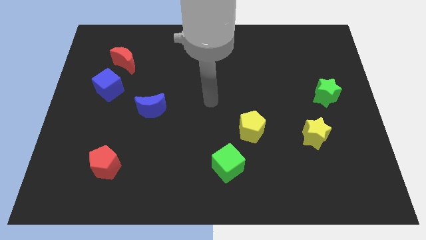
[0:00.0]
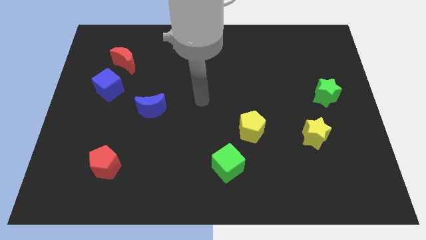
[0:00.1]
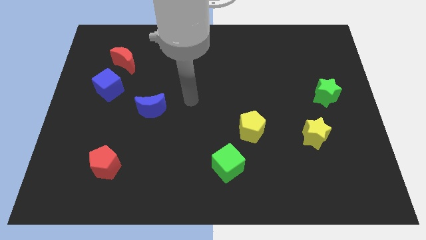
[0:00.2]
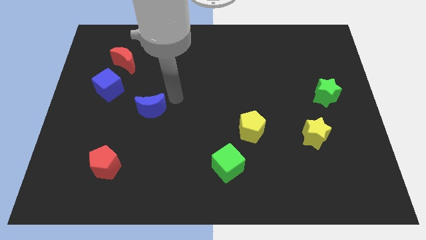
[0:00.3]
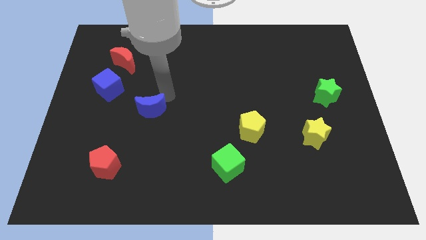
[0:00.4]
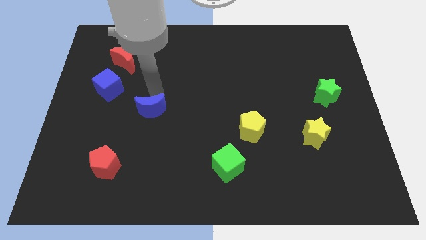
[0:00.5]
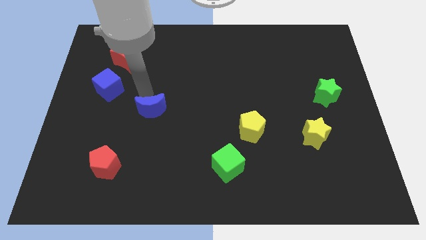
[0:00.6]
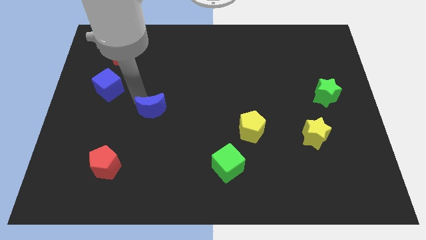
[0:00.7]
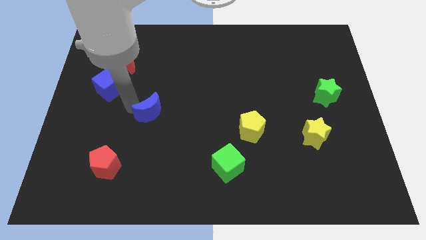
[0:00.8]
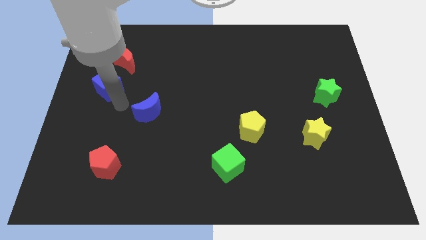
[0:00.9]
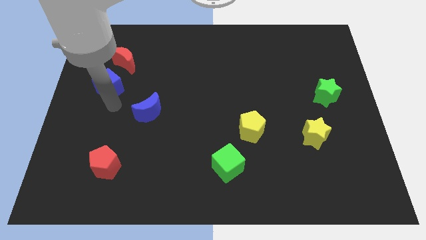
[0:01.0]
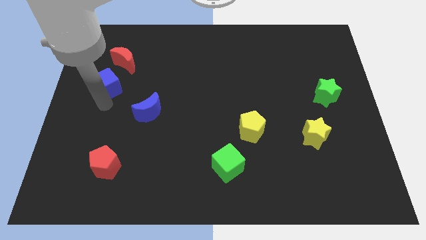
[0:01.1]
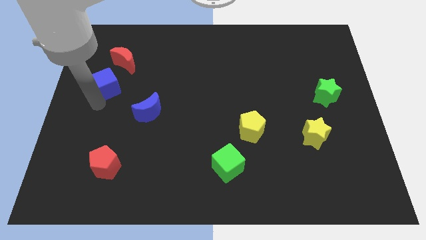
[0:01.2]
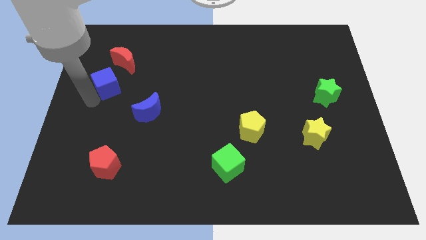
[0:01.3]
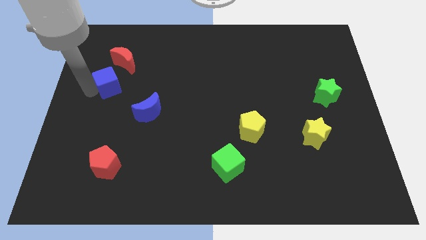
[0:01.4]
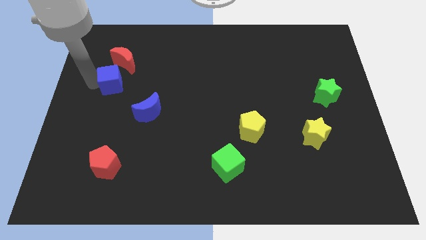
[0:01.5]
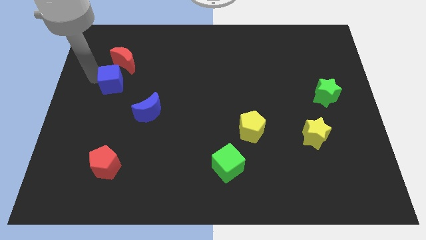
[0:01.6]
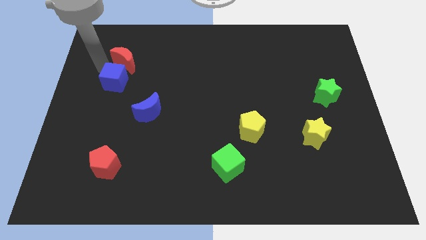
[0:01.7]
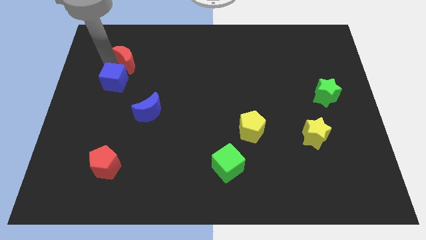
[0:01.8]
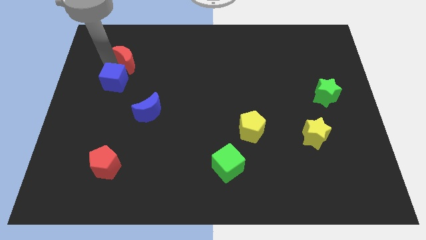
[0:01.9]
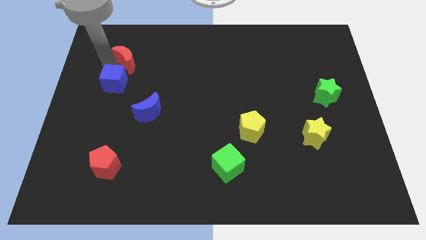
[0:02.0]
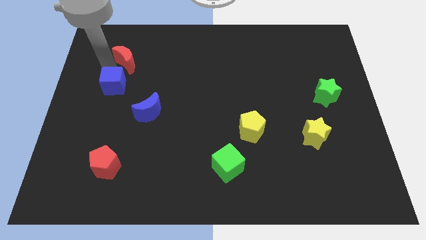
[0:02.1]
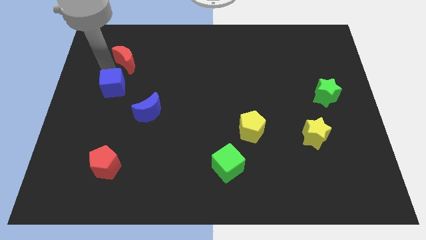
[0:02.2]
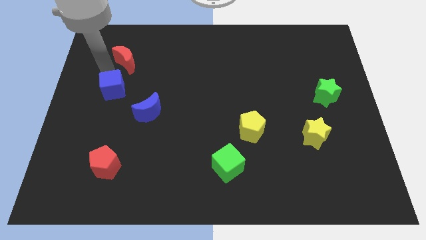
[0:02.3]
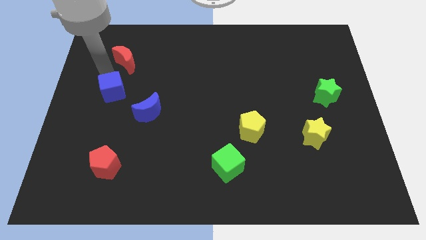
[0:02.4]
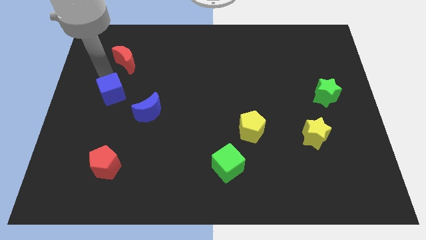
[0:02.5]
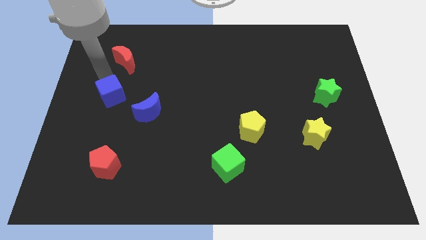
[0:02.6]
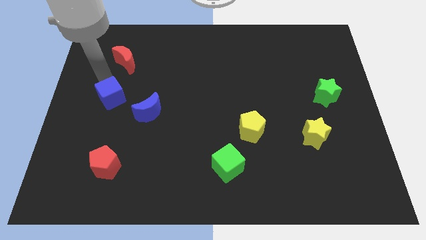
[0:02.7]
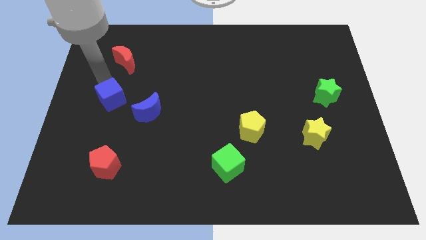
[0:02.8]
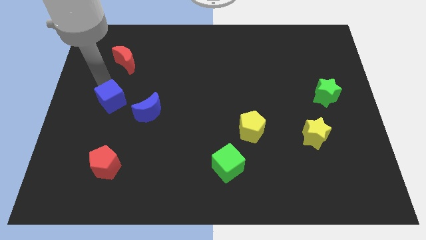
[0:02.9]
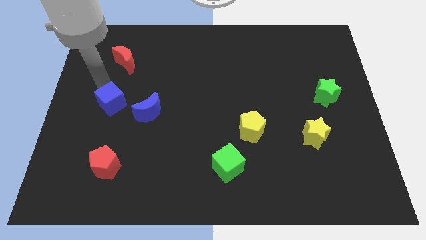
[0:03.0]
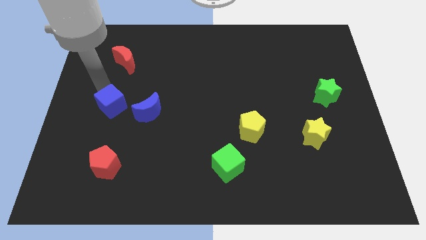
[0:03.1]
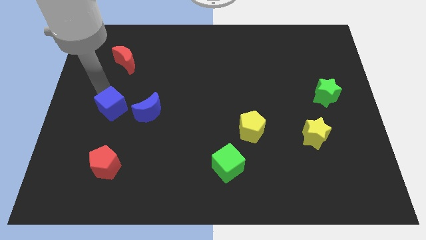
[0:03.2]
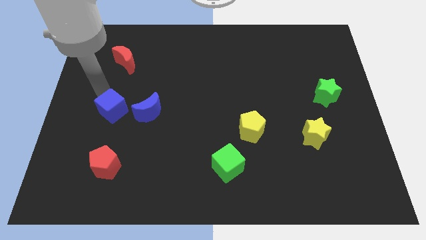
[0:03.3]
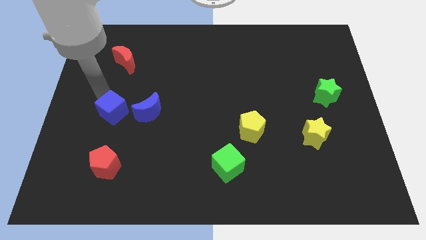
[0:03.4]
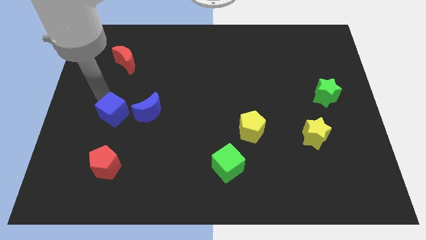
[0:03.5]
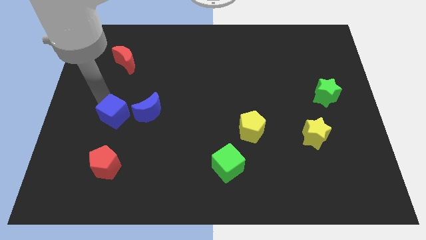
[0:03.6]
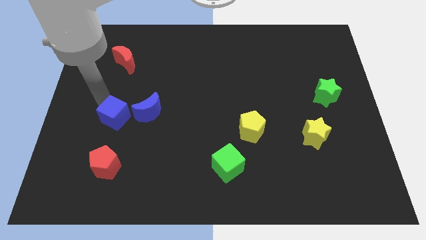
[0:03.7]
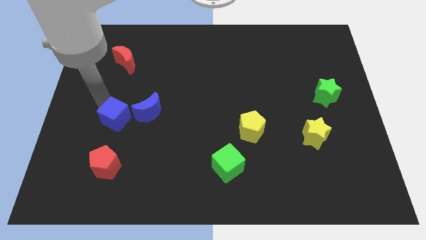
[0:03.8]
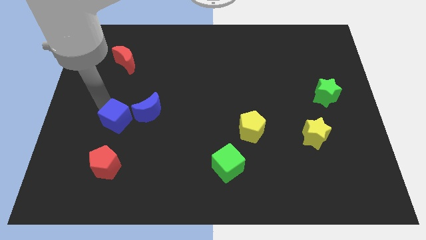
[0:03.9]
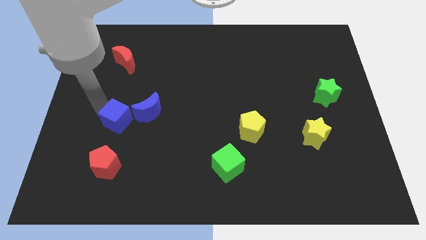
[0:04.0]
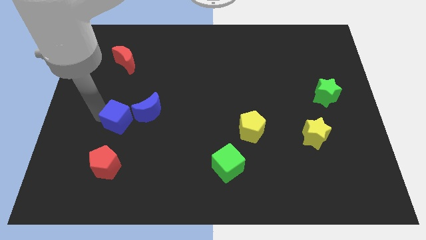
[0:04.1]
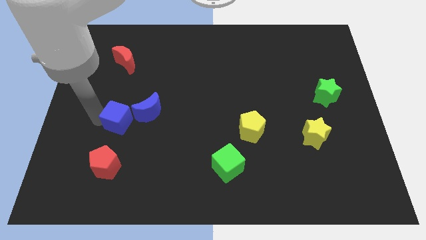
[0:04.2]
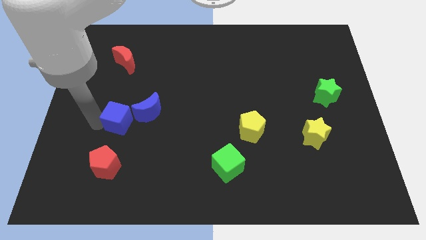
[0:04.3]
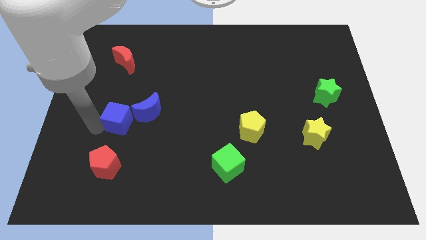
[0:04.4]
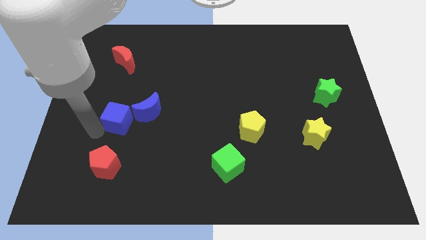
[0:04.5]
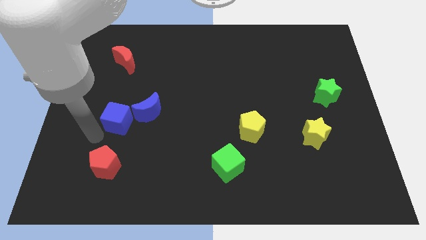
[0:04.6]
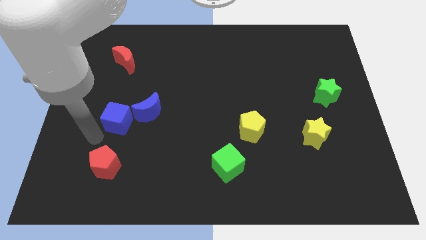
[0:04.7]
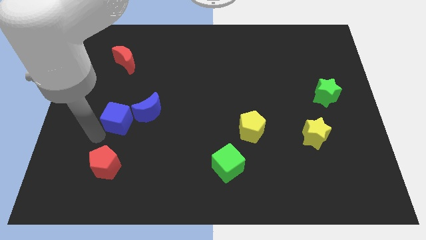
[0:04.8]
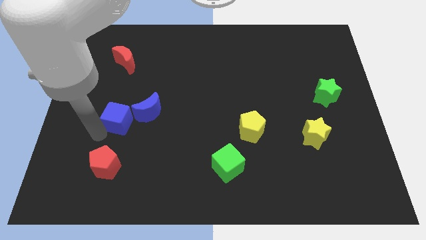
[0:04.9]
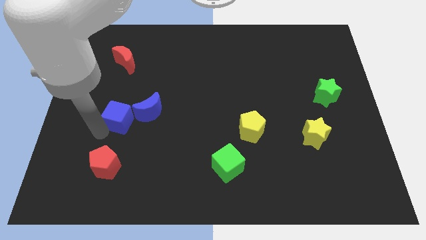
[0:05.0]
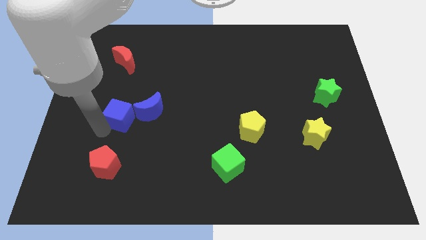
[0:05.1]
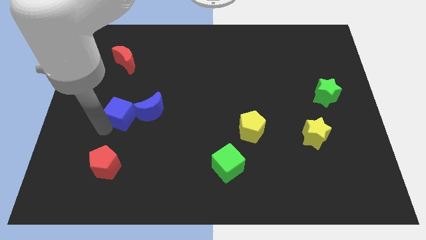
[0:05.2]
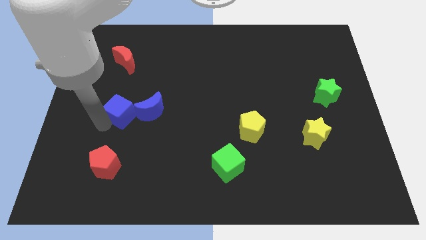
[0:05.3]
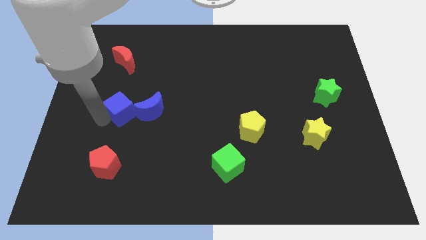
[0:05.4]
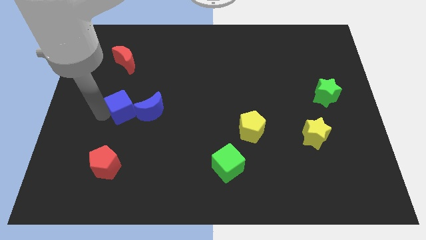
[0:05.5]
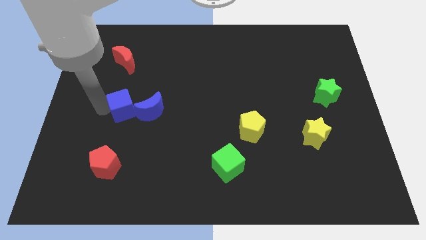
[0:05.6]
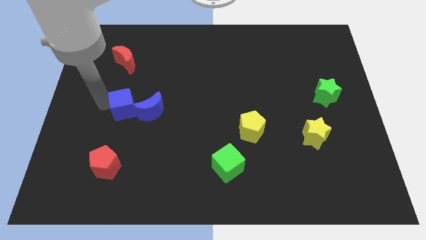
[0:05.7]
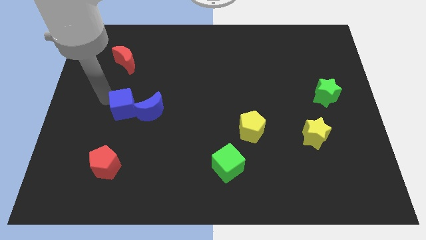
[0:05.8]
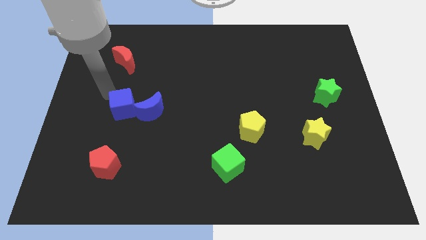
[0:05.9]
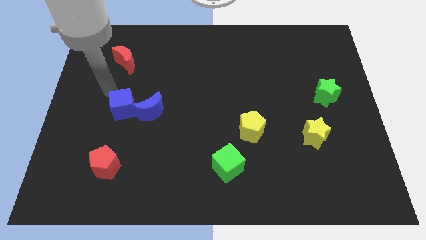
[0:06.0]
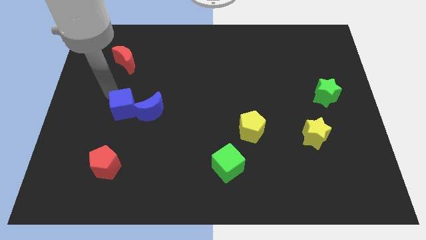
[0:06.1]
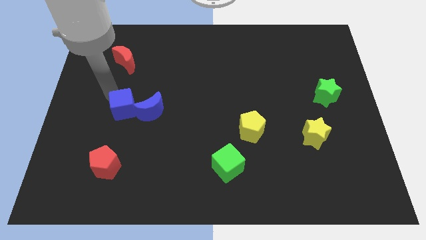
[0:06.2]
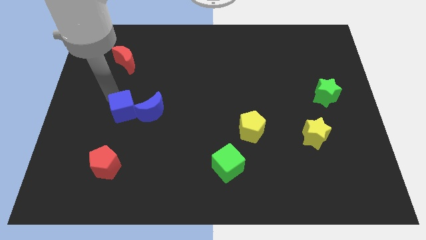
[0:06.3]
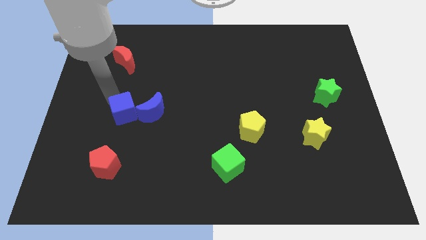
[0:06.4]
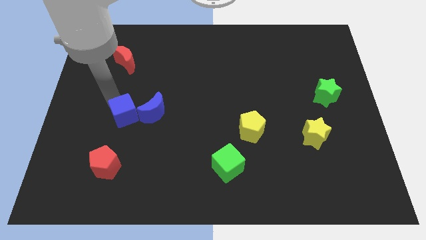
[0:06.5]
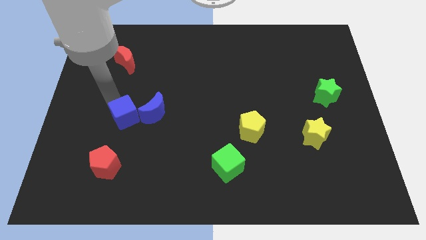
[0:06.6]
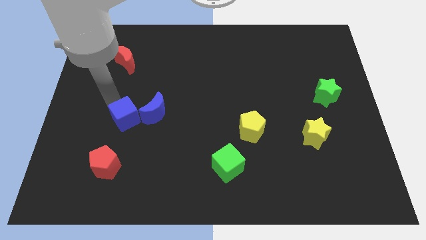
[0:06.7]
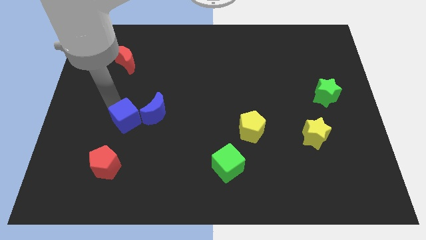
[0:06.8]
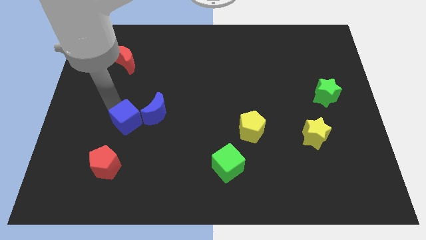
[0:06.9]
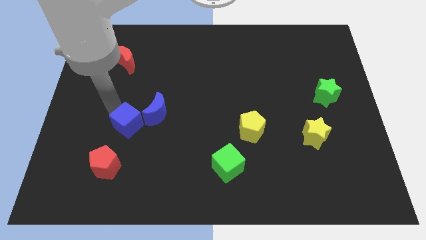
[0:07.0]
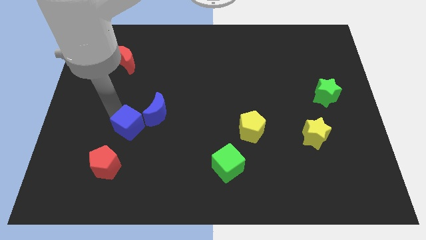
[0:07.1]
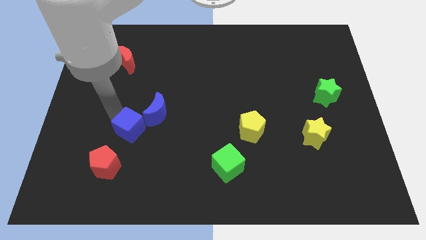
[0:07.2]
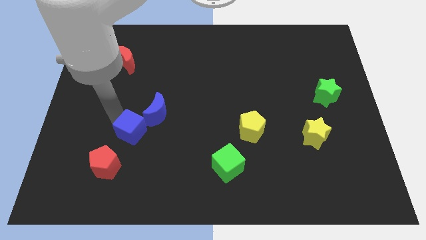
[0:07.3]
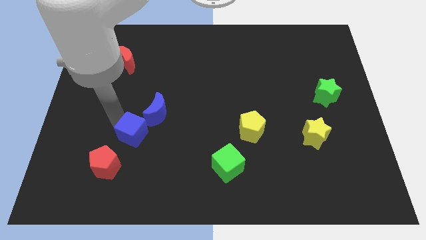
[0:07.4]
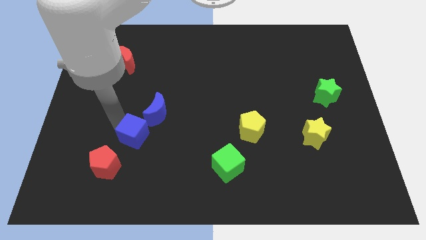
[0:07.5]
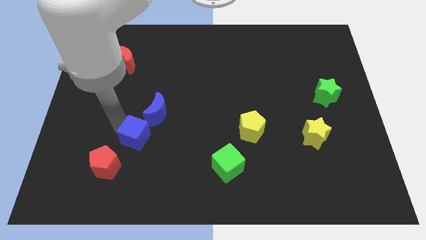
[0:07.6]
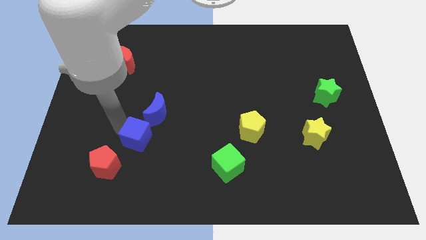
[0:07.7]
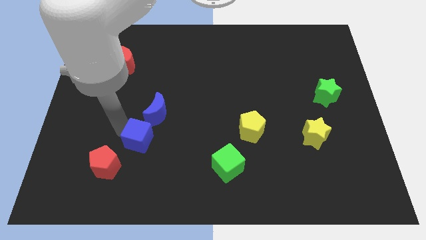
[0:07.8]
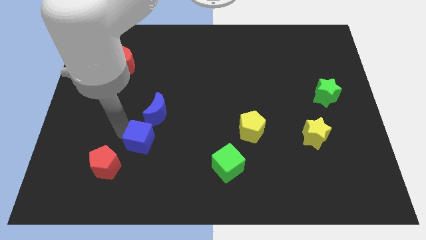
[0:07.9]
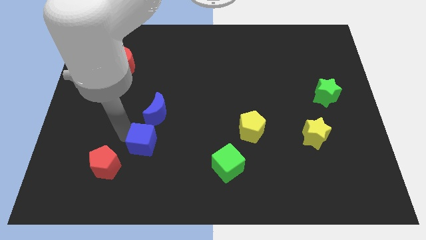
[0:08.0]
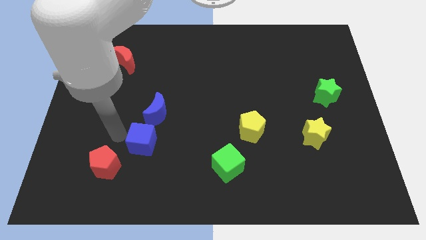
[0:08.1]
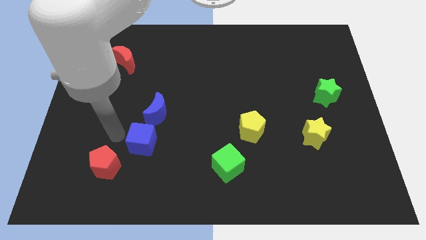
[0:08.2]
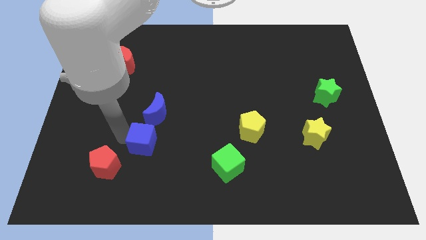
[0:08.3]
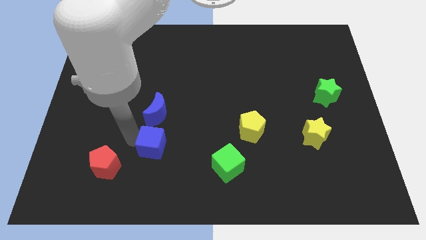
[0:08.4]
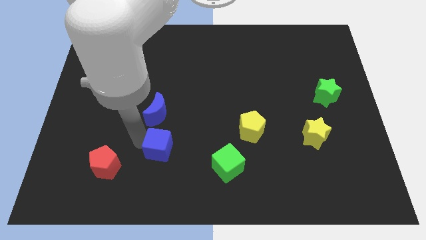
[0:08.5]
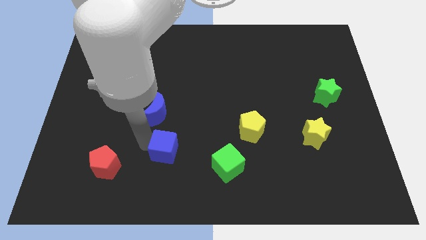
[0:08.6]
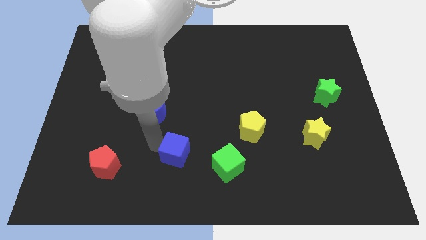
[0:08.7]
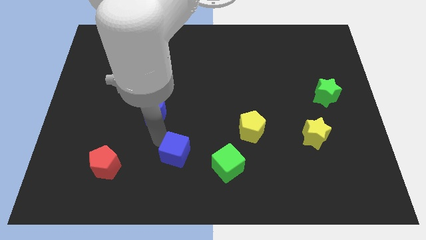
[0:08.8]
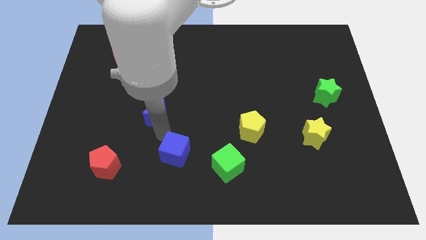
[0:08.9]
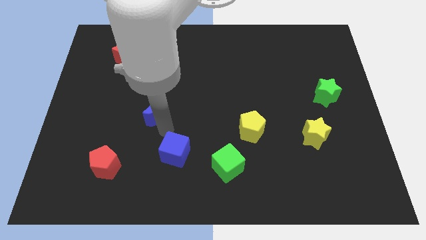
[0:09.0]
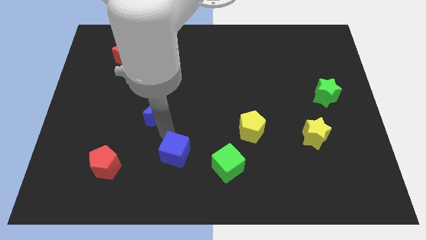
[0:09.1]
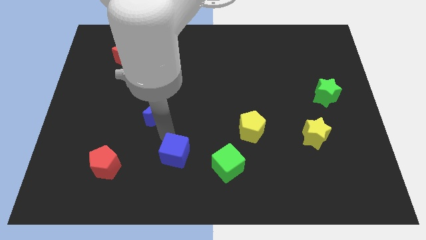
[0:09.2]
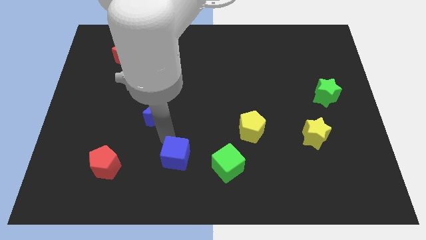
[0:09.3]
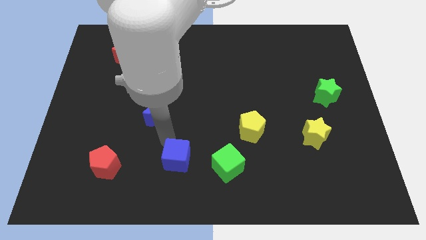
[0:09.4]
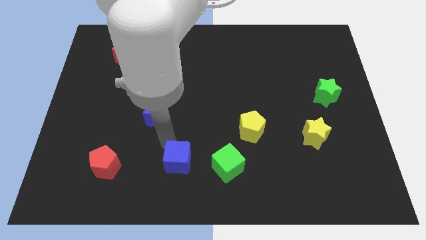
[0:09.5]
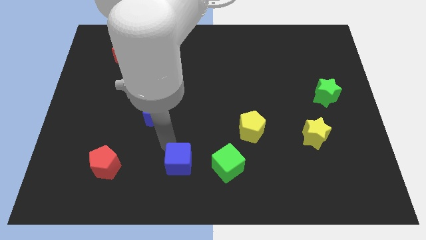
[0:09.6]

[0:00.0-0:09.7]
put the blue cube to the bottom
